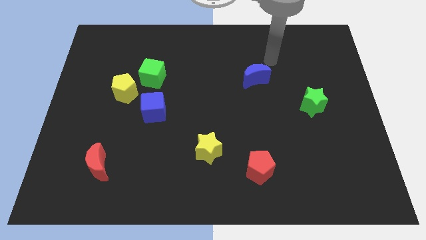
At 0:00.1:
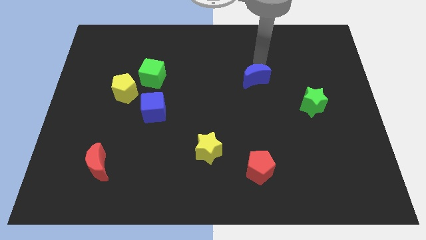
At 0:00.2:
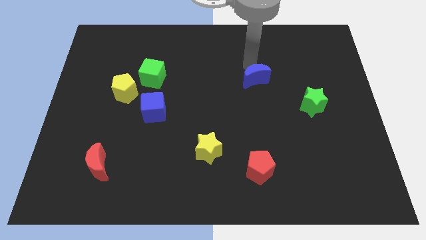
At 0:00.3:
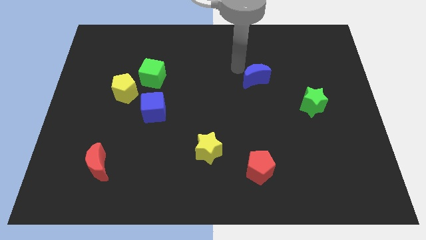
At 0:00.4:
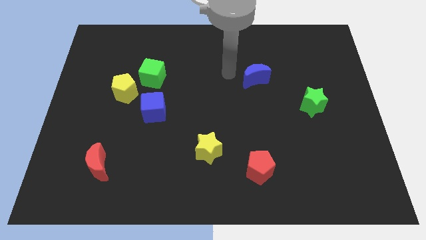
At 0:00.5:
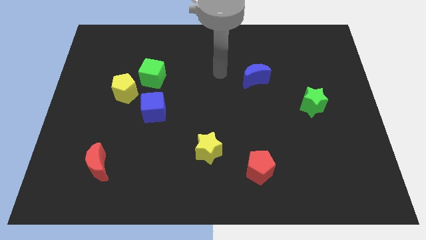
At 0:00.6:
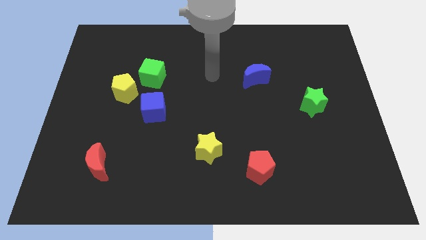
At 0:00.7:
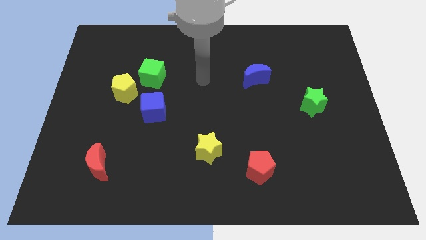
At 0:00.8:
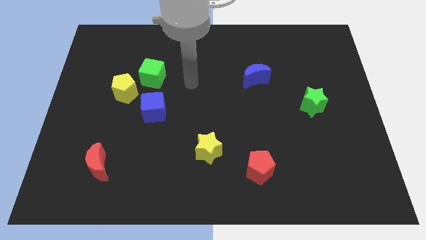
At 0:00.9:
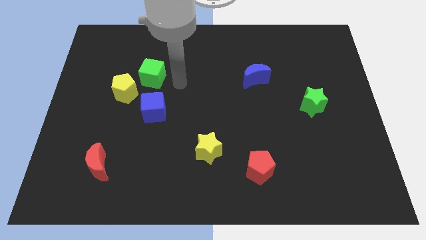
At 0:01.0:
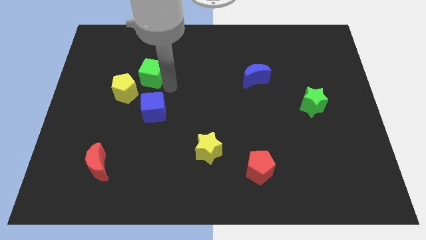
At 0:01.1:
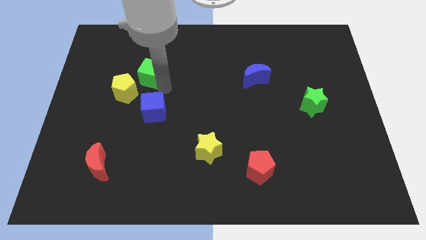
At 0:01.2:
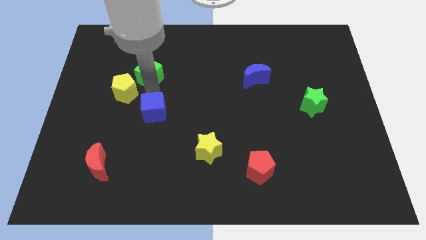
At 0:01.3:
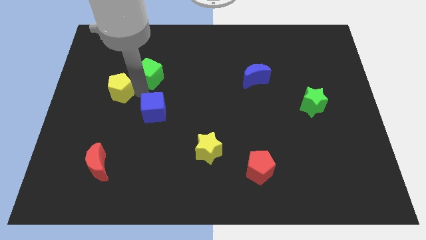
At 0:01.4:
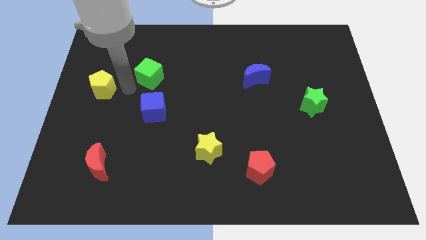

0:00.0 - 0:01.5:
separate the green cube from the yellow pentagon

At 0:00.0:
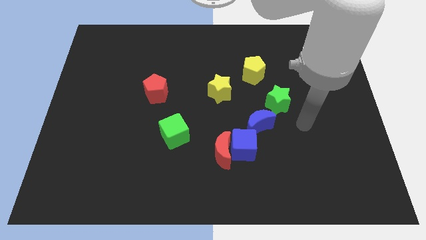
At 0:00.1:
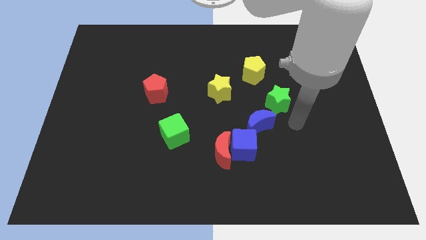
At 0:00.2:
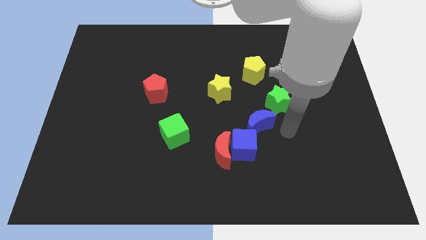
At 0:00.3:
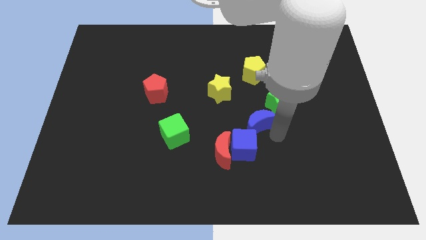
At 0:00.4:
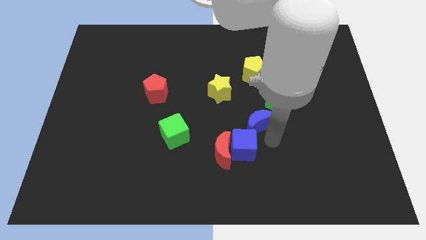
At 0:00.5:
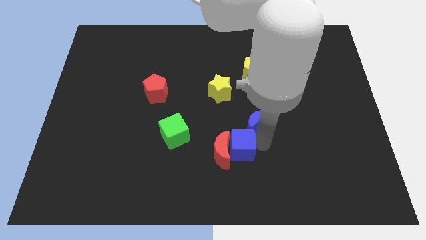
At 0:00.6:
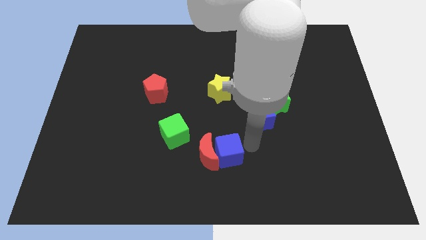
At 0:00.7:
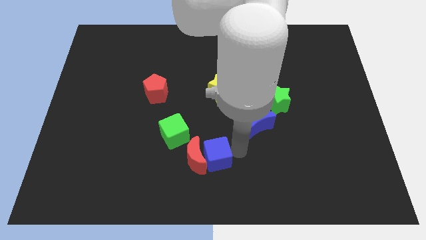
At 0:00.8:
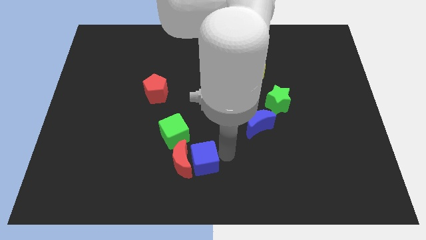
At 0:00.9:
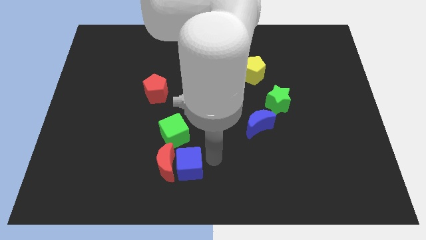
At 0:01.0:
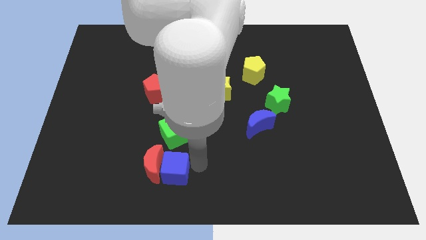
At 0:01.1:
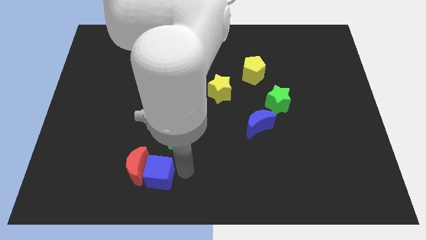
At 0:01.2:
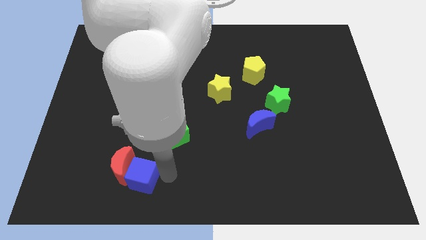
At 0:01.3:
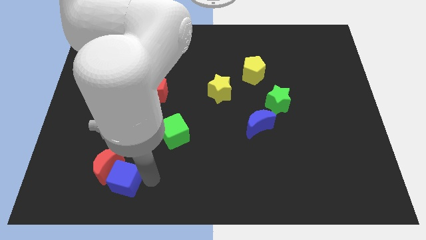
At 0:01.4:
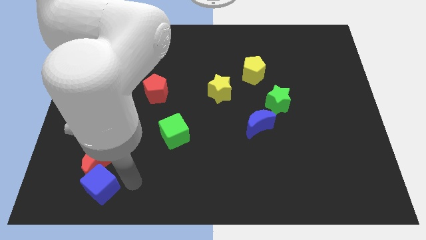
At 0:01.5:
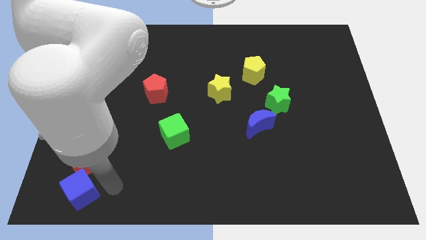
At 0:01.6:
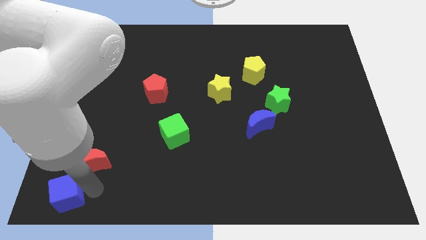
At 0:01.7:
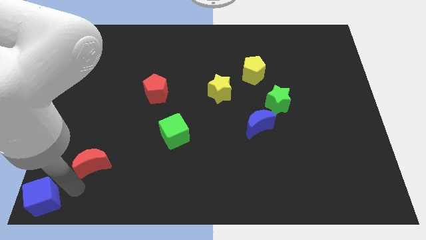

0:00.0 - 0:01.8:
move the red moon away from the blue cube

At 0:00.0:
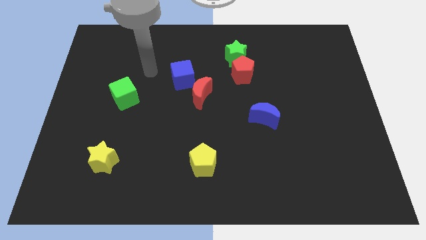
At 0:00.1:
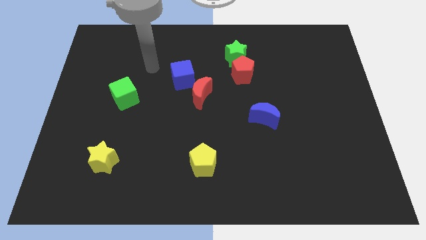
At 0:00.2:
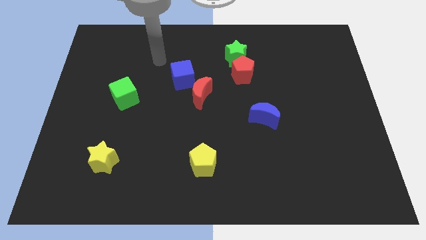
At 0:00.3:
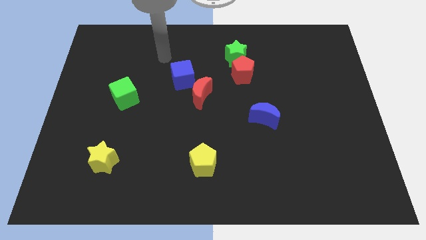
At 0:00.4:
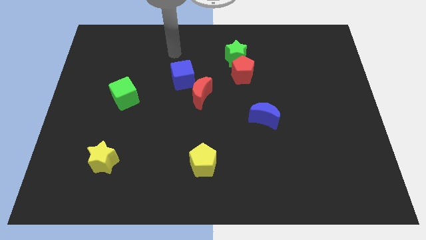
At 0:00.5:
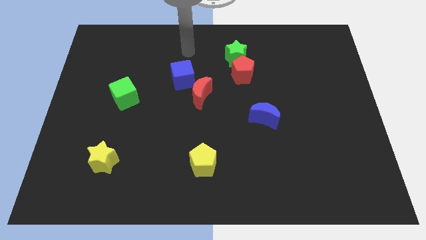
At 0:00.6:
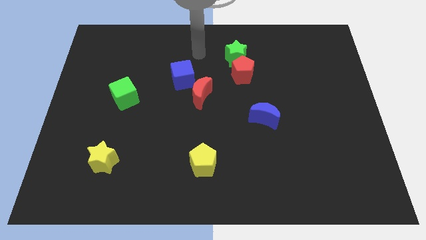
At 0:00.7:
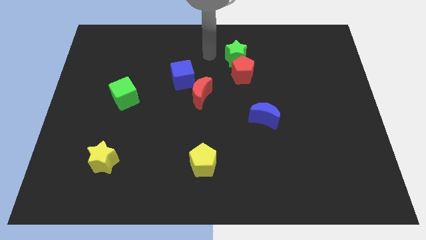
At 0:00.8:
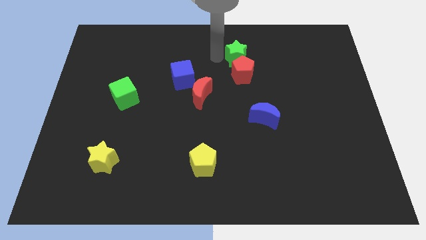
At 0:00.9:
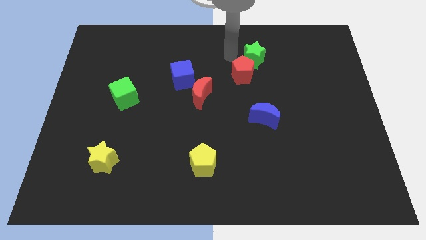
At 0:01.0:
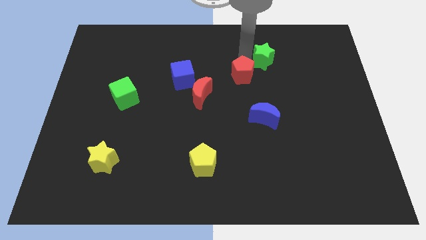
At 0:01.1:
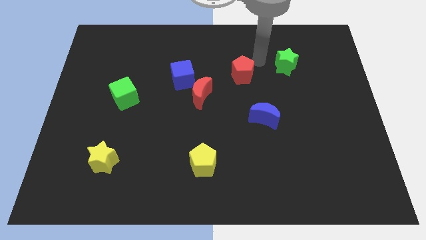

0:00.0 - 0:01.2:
separate the red pentagon from the green star

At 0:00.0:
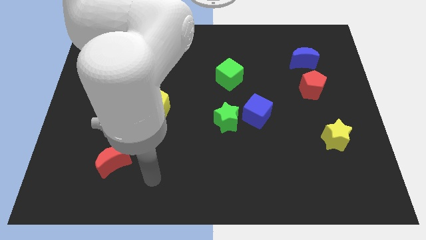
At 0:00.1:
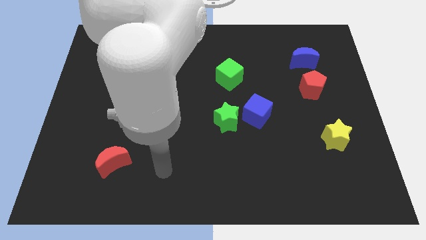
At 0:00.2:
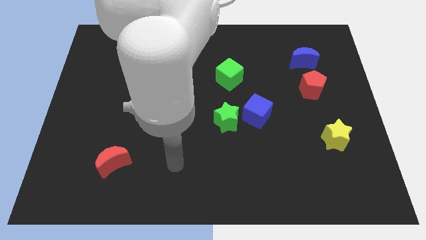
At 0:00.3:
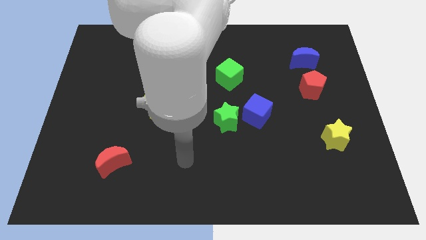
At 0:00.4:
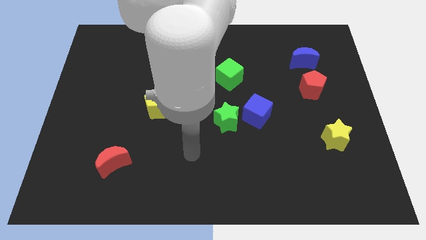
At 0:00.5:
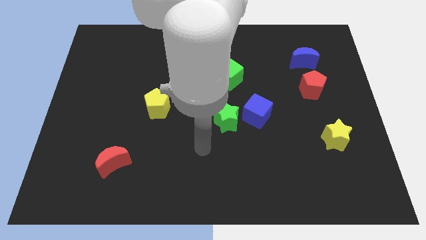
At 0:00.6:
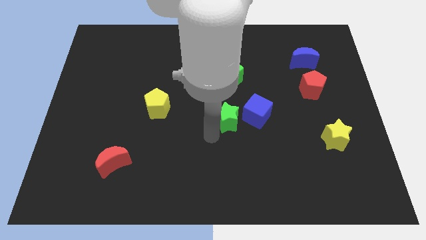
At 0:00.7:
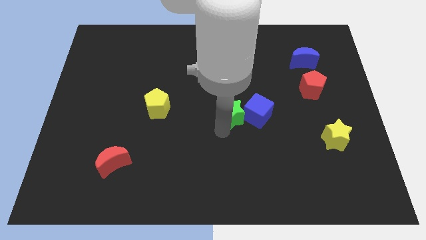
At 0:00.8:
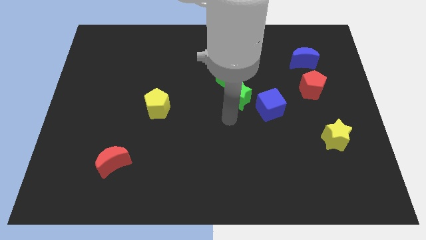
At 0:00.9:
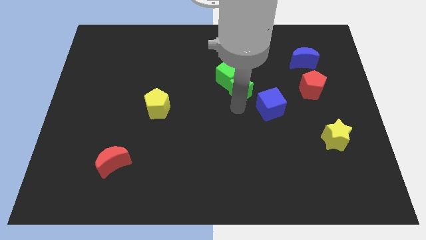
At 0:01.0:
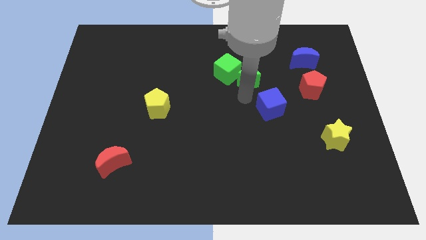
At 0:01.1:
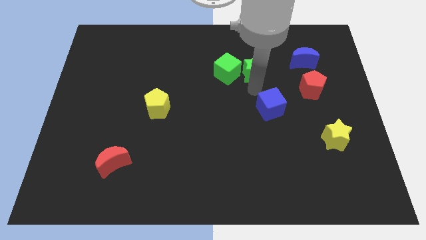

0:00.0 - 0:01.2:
pull the blue cube apart from the green star

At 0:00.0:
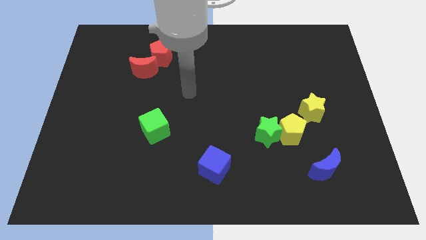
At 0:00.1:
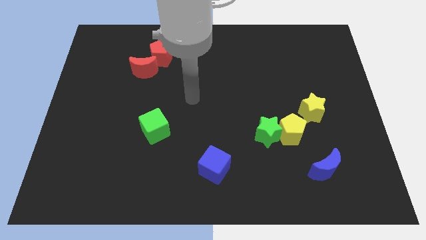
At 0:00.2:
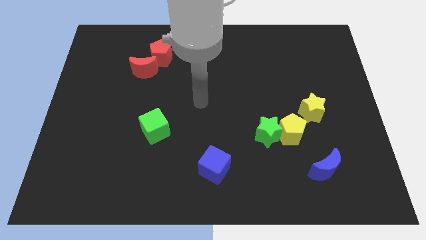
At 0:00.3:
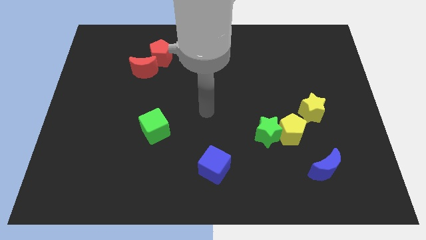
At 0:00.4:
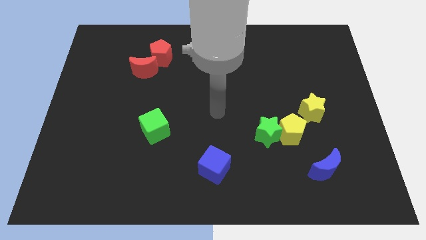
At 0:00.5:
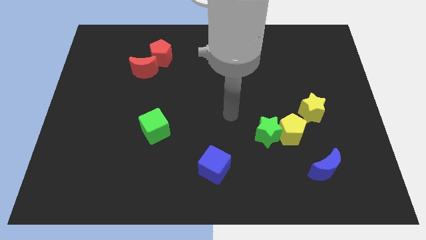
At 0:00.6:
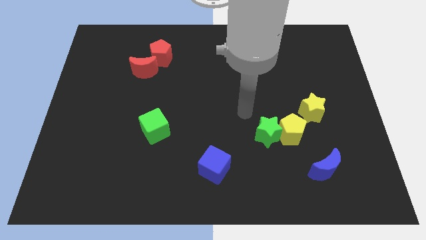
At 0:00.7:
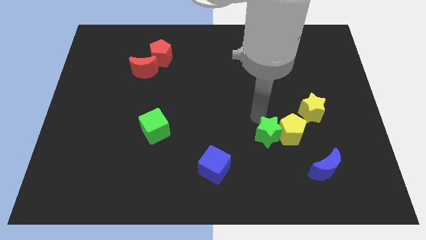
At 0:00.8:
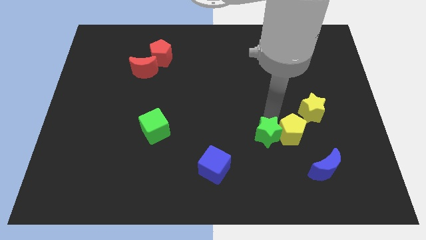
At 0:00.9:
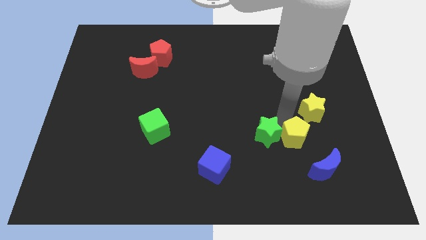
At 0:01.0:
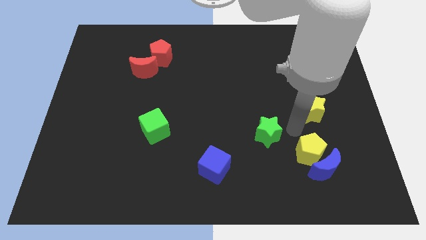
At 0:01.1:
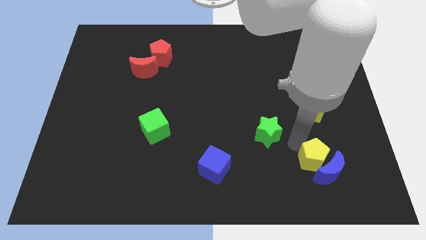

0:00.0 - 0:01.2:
separate the green star from the yellow pentagon

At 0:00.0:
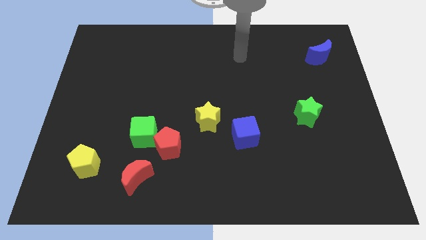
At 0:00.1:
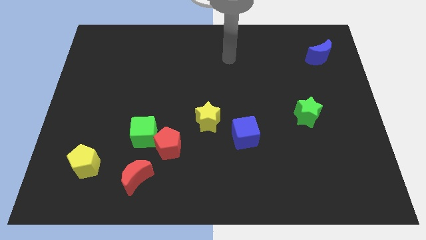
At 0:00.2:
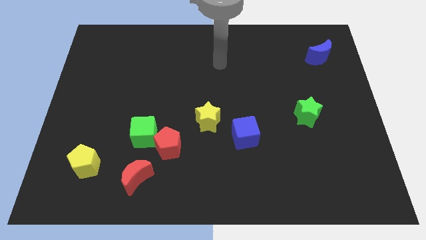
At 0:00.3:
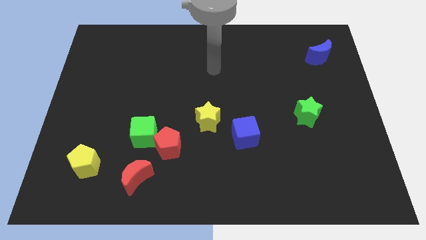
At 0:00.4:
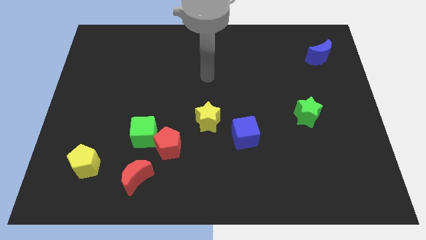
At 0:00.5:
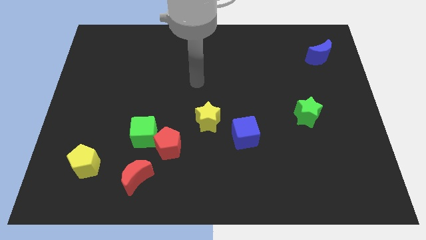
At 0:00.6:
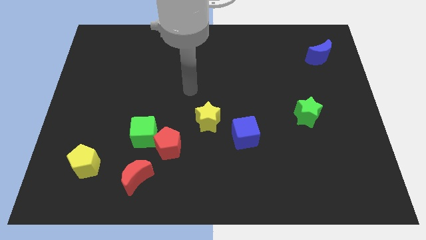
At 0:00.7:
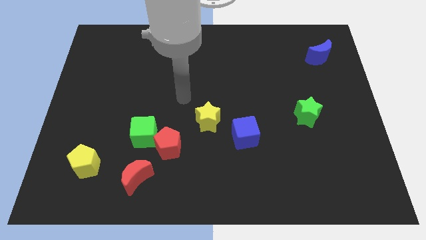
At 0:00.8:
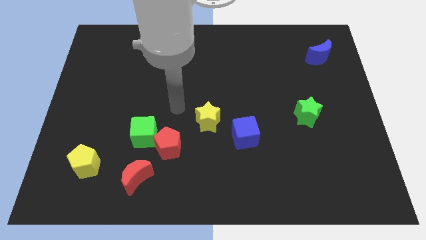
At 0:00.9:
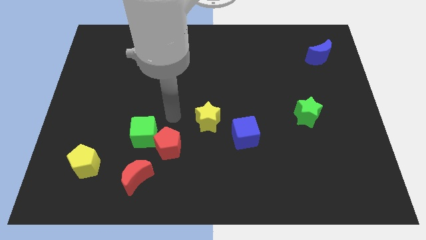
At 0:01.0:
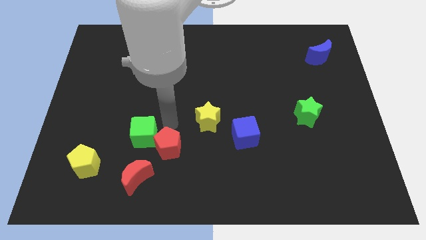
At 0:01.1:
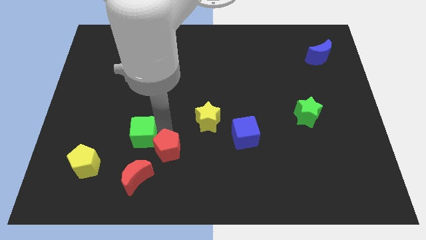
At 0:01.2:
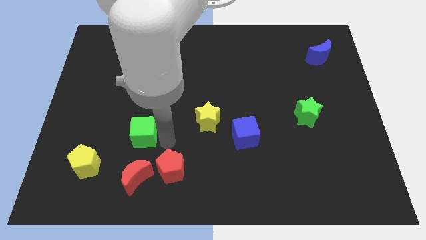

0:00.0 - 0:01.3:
separate the green cube from the red pentagon

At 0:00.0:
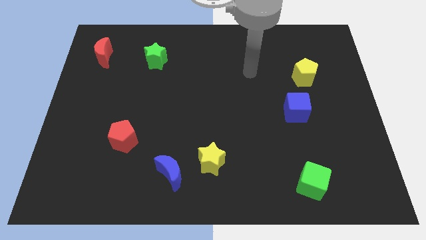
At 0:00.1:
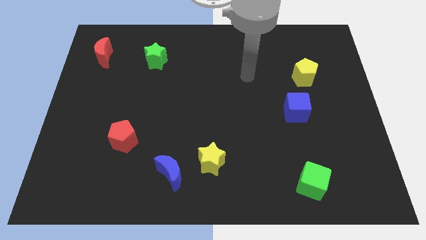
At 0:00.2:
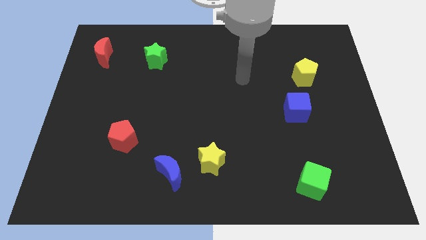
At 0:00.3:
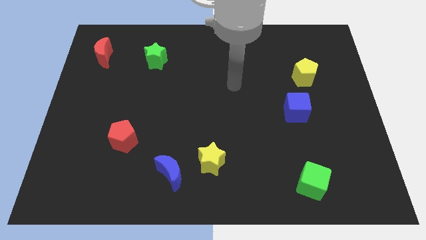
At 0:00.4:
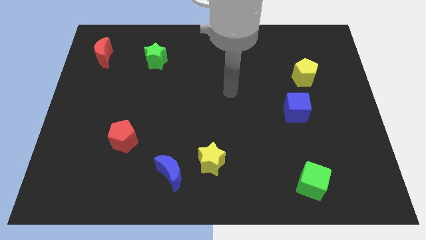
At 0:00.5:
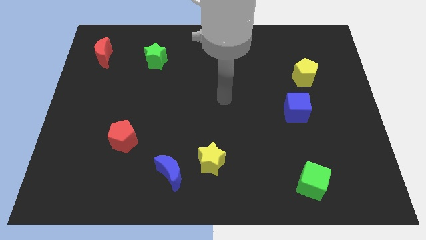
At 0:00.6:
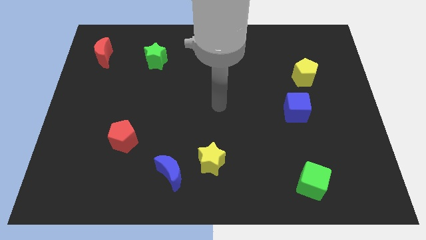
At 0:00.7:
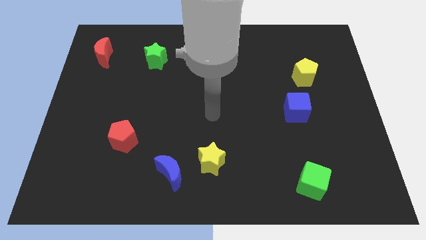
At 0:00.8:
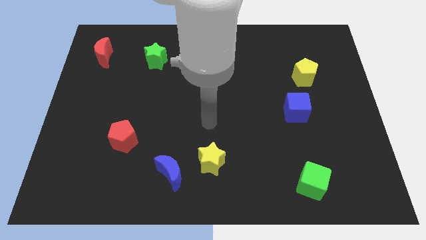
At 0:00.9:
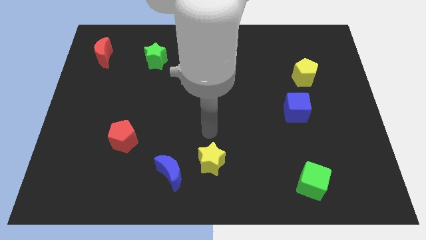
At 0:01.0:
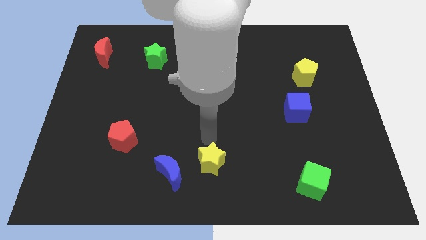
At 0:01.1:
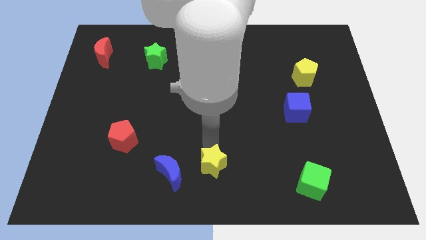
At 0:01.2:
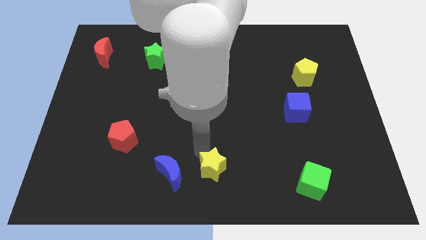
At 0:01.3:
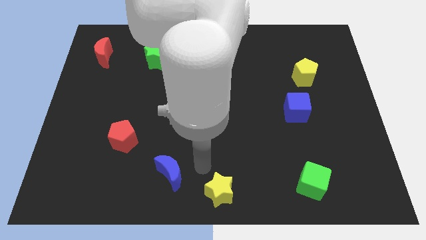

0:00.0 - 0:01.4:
move the blue moon away from the yellow star
